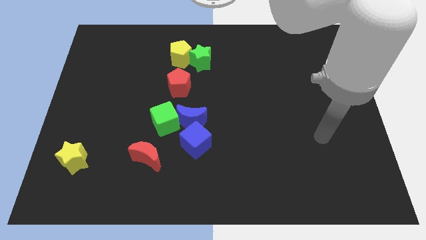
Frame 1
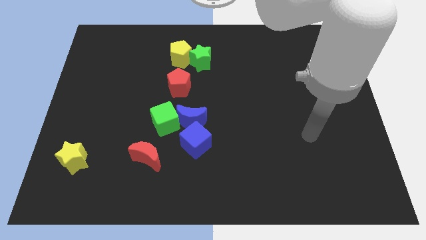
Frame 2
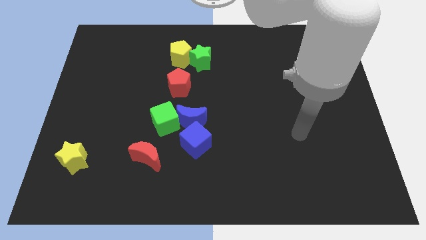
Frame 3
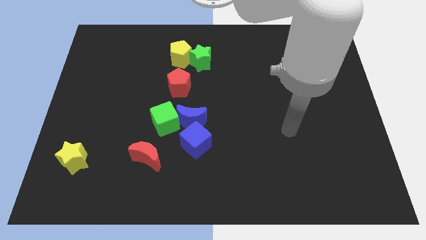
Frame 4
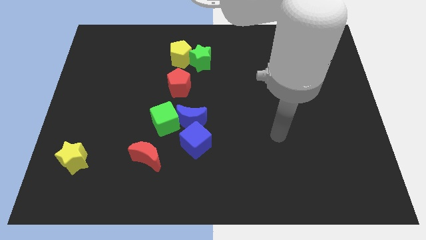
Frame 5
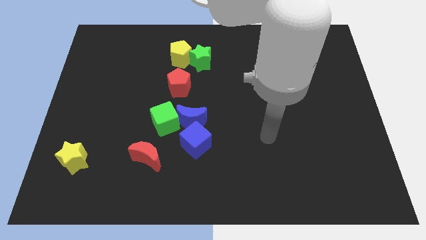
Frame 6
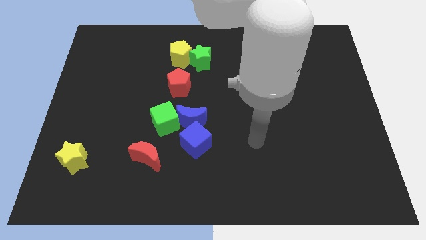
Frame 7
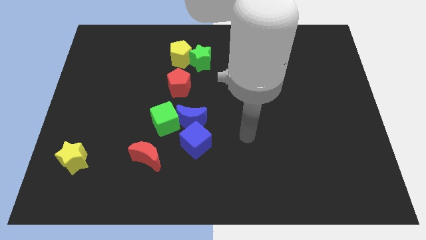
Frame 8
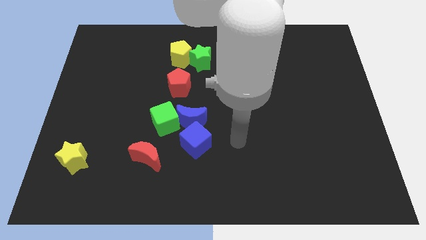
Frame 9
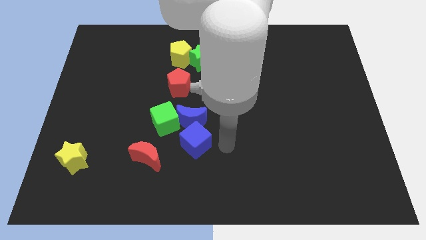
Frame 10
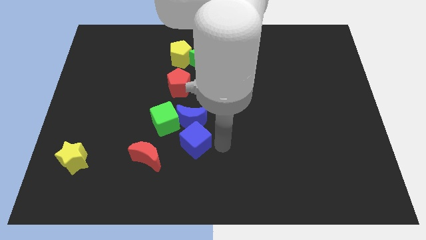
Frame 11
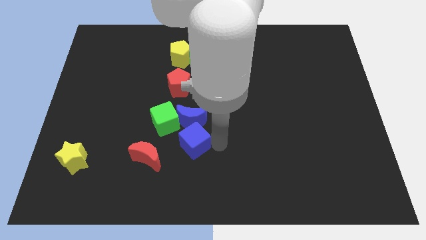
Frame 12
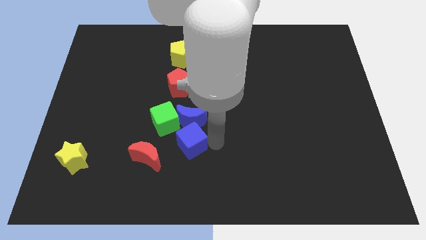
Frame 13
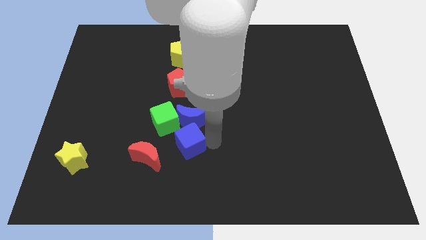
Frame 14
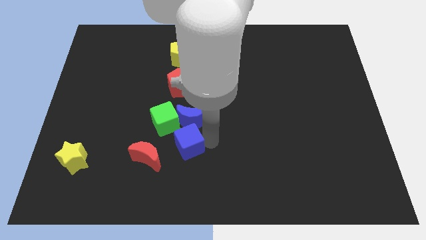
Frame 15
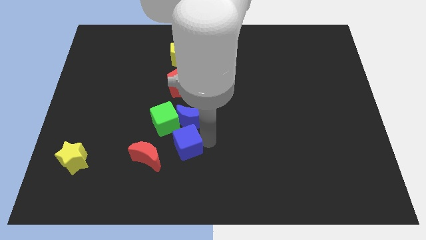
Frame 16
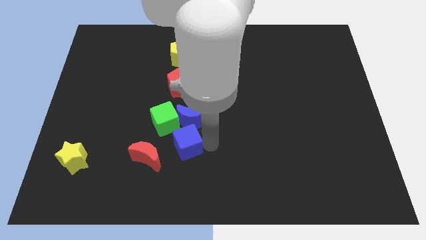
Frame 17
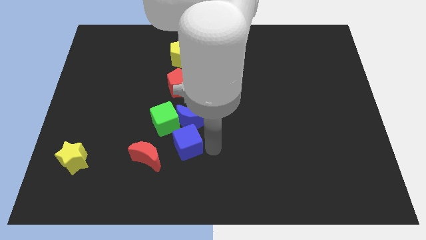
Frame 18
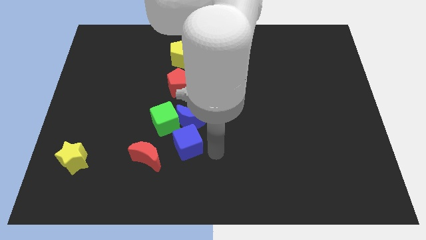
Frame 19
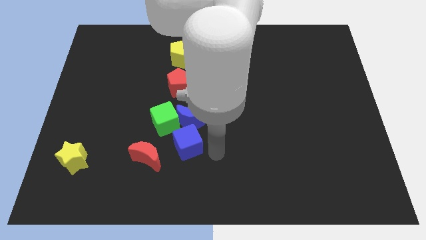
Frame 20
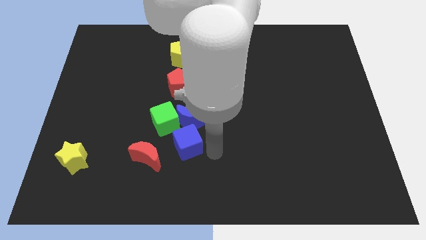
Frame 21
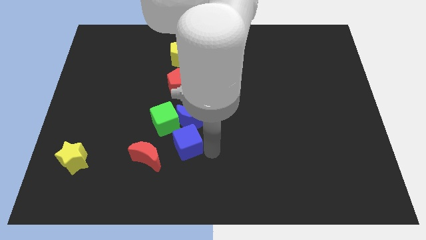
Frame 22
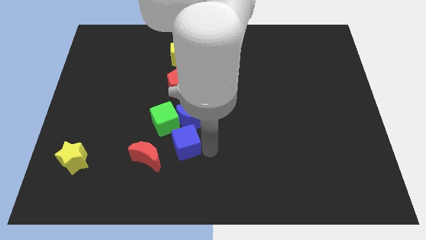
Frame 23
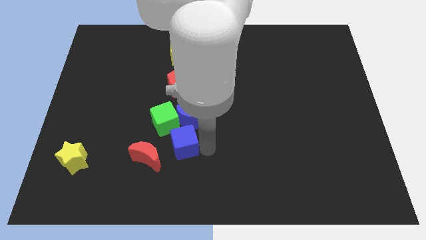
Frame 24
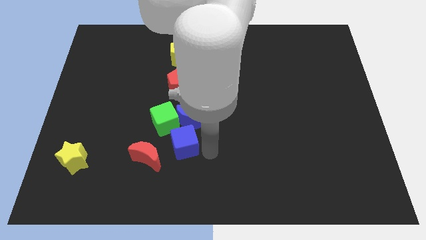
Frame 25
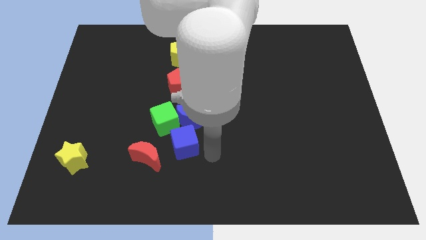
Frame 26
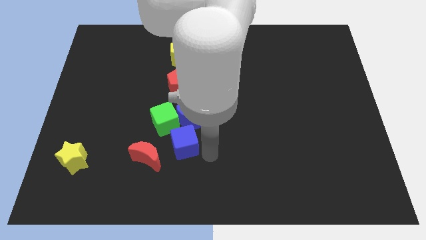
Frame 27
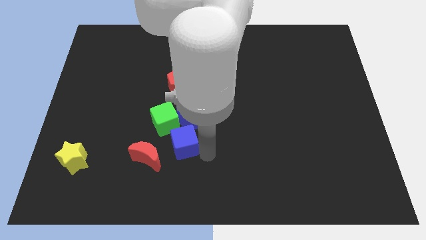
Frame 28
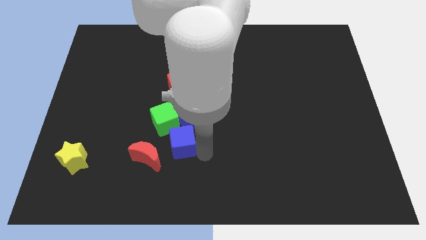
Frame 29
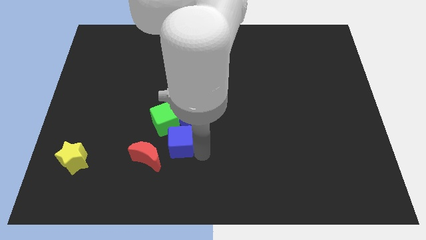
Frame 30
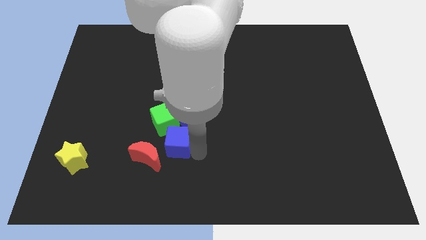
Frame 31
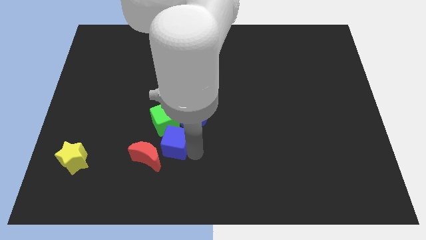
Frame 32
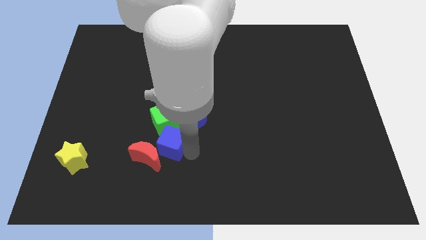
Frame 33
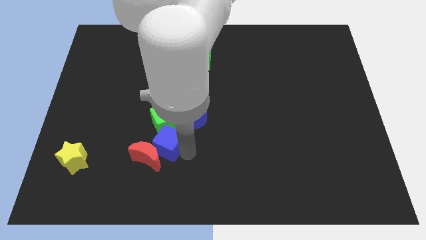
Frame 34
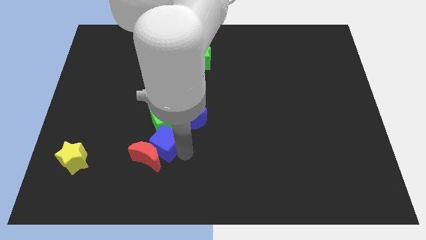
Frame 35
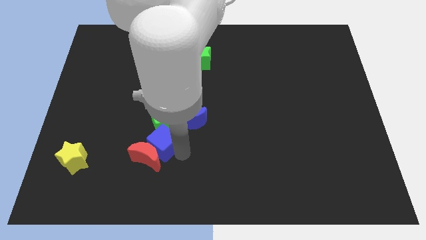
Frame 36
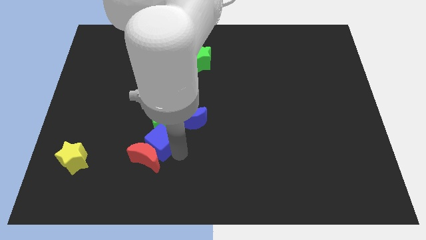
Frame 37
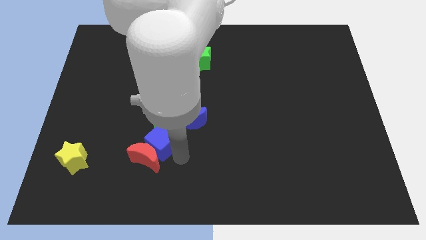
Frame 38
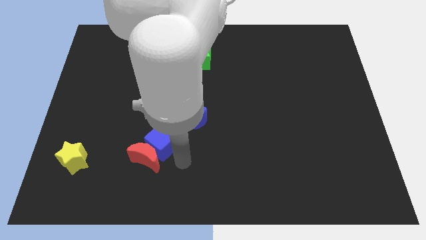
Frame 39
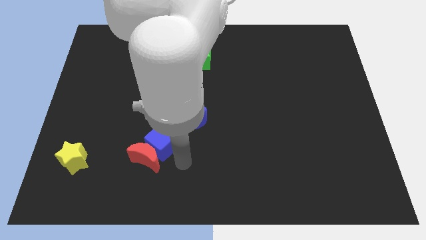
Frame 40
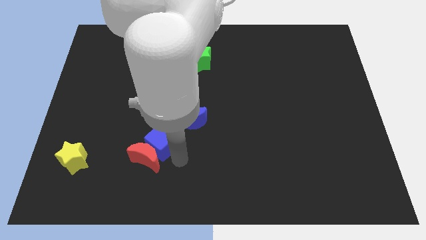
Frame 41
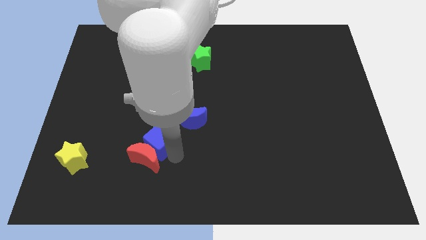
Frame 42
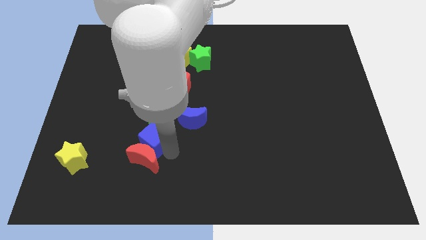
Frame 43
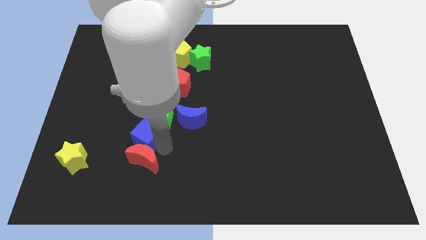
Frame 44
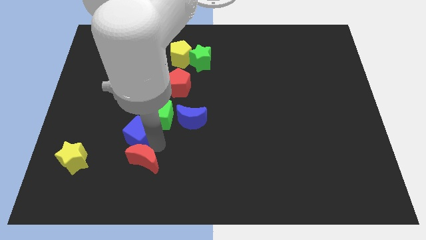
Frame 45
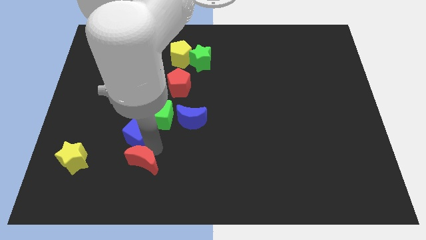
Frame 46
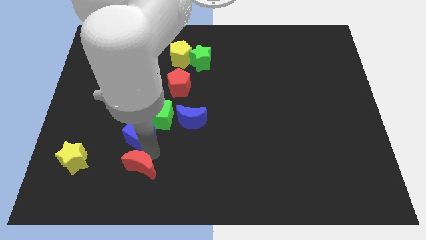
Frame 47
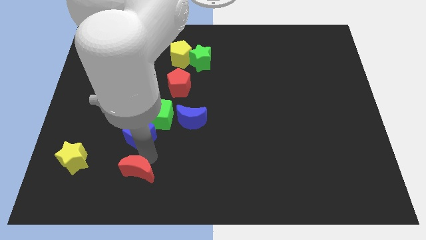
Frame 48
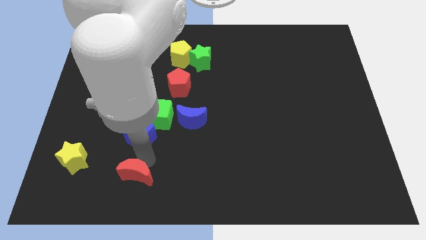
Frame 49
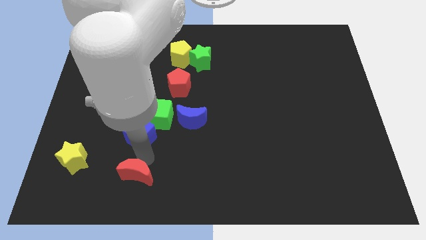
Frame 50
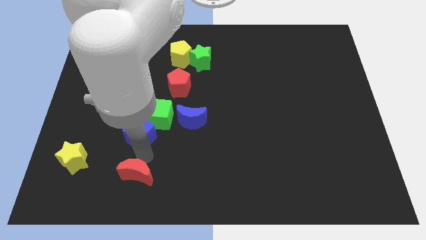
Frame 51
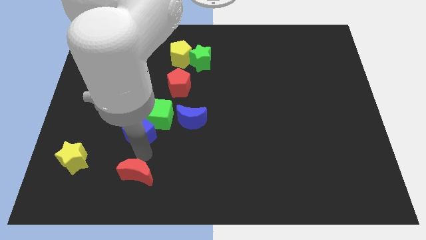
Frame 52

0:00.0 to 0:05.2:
push the blue cube just left of the green cube

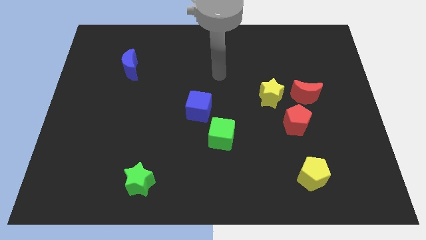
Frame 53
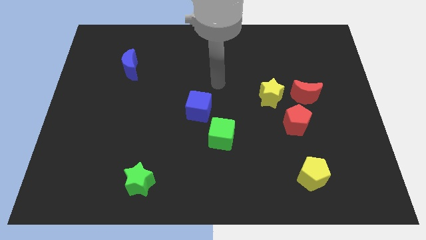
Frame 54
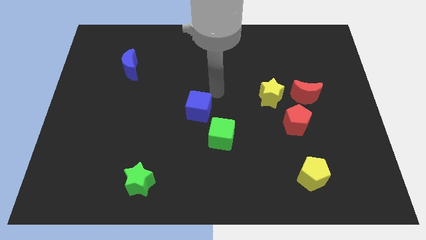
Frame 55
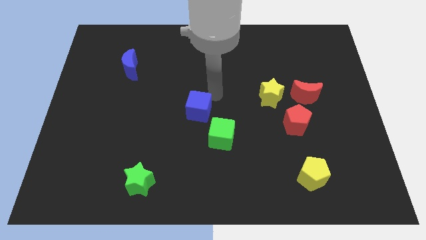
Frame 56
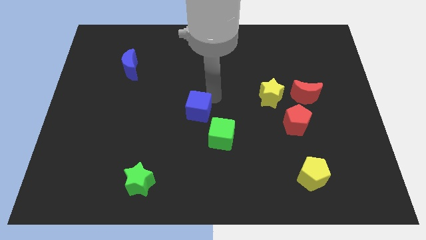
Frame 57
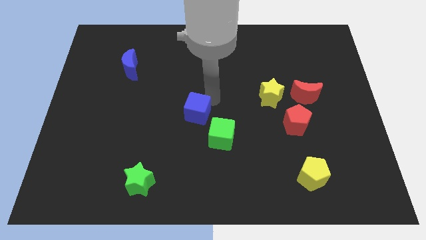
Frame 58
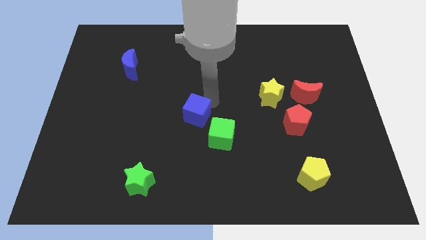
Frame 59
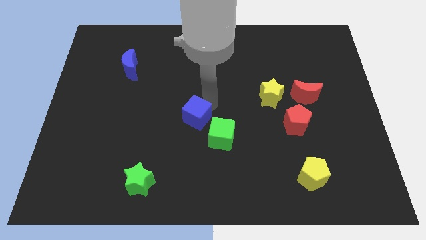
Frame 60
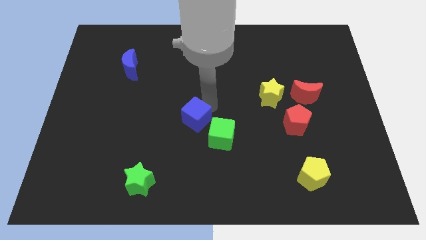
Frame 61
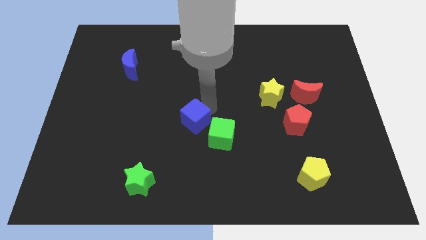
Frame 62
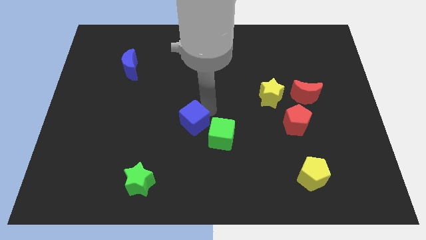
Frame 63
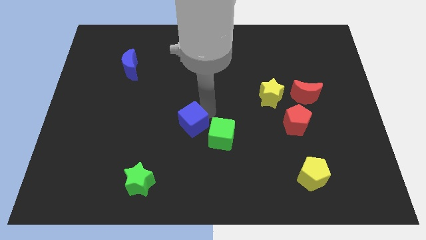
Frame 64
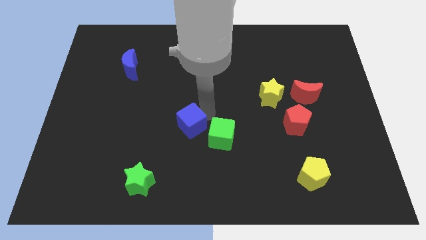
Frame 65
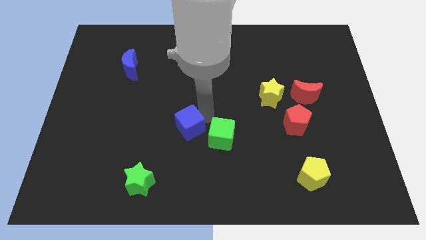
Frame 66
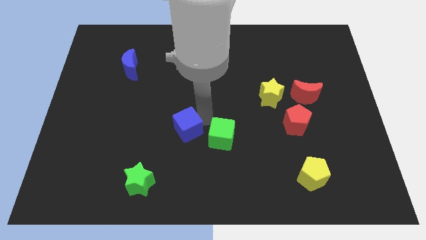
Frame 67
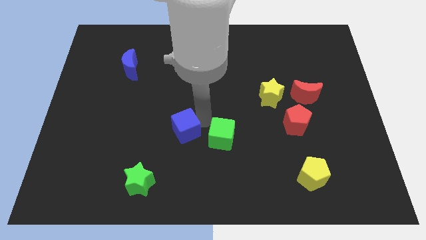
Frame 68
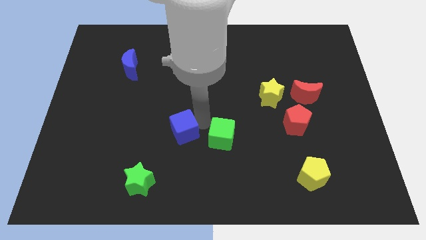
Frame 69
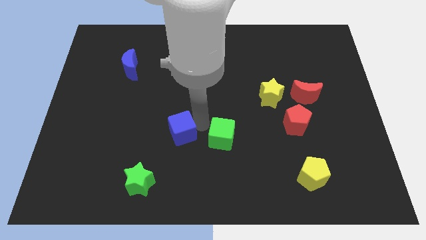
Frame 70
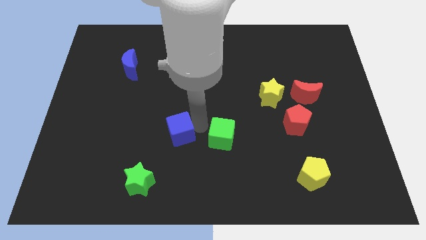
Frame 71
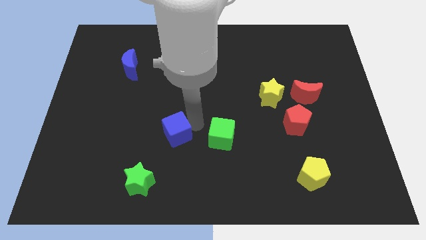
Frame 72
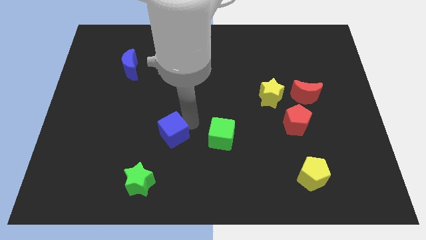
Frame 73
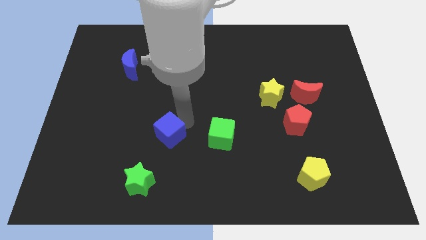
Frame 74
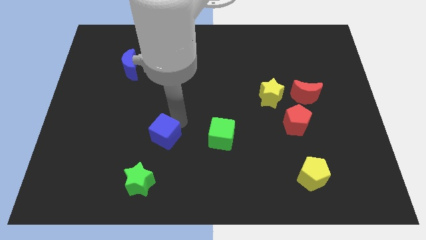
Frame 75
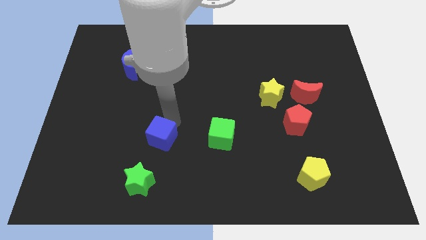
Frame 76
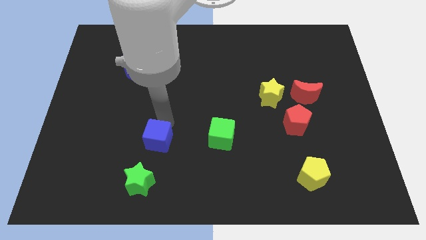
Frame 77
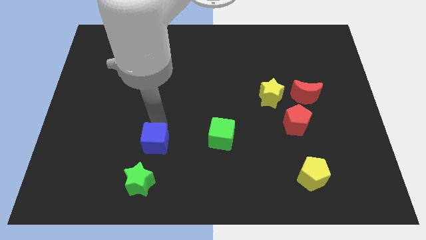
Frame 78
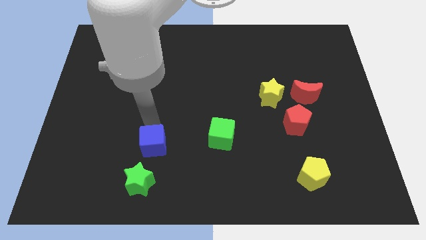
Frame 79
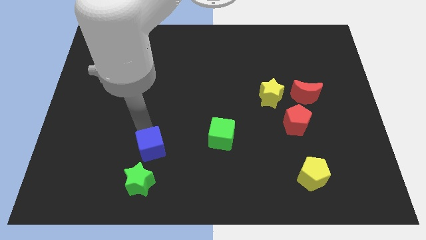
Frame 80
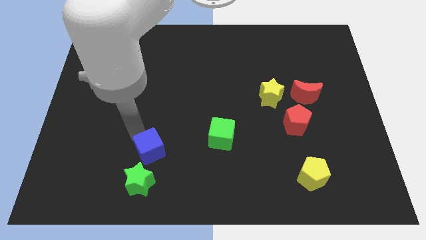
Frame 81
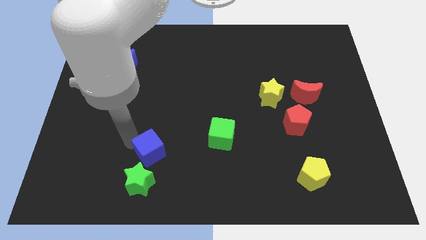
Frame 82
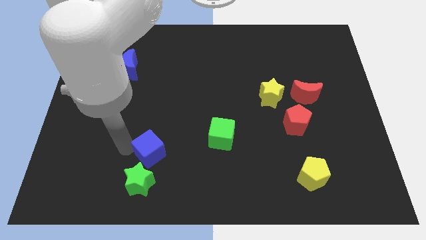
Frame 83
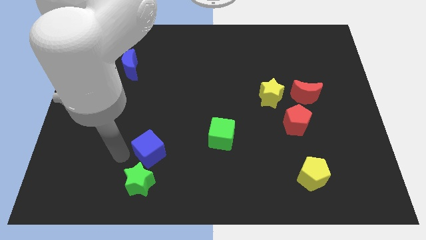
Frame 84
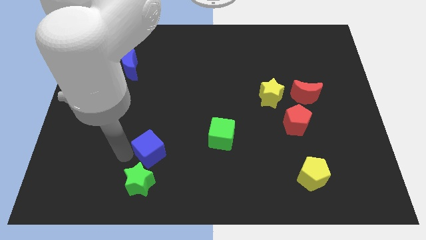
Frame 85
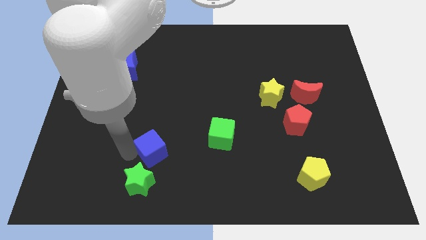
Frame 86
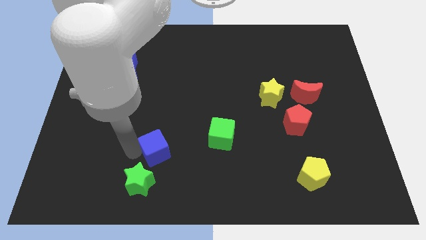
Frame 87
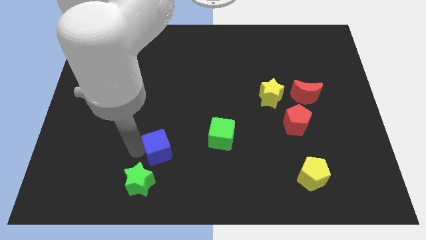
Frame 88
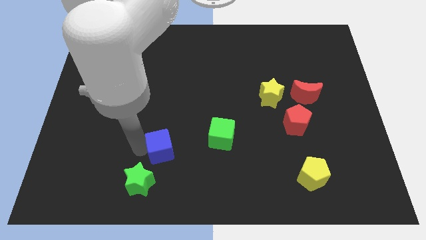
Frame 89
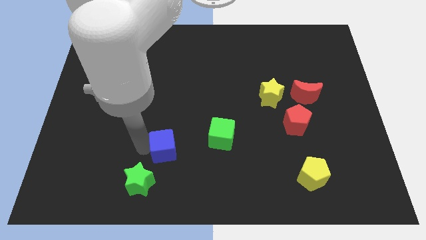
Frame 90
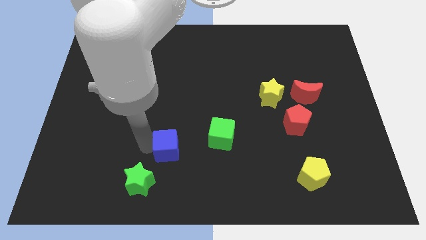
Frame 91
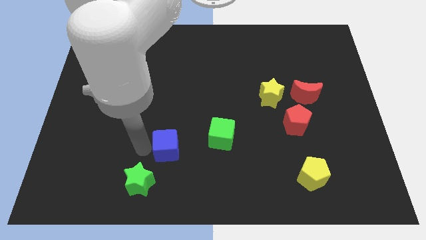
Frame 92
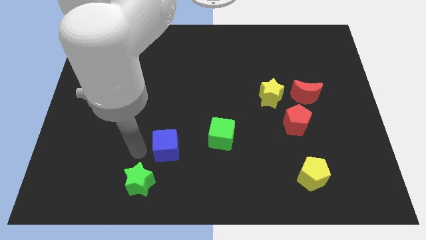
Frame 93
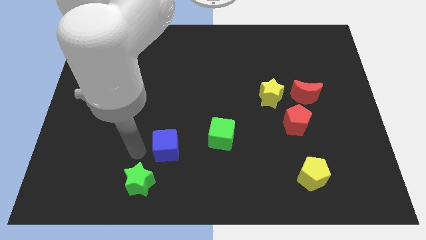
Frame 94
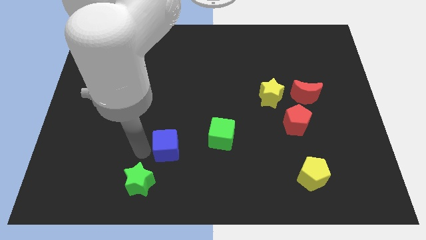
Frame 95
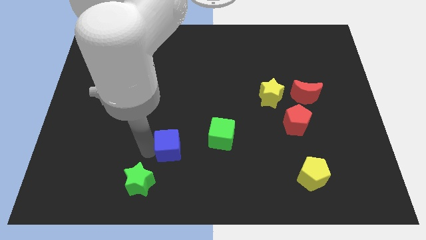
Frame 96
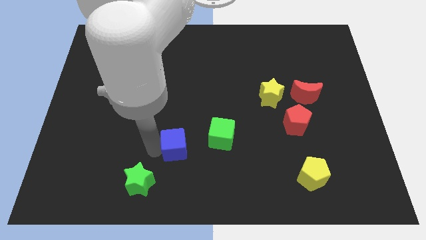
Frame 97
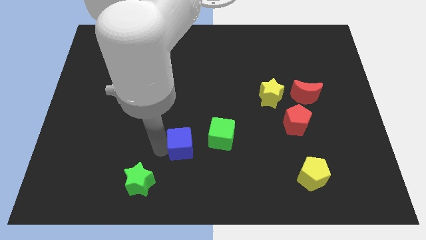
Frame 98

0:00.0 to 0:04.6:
slide the blue cube to the bottom left of the green cube
